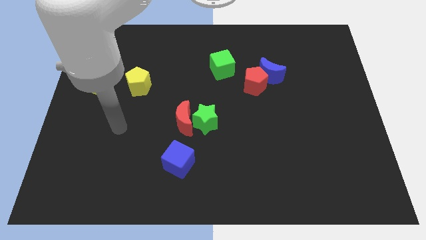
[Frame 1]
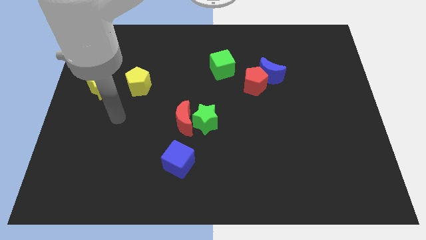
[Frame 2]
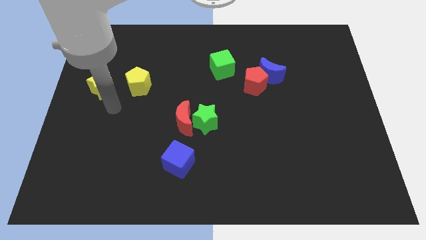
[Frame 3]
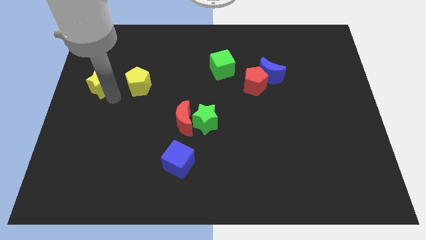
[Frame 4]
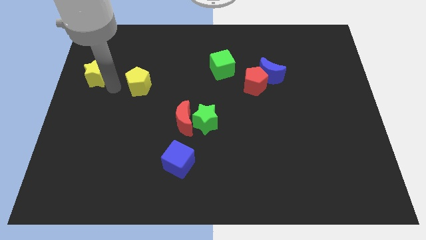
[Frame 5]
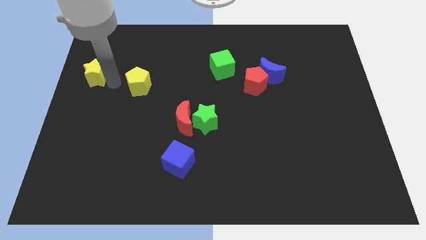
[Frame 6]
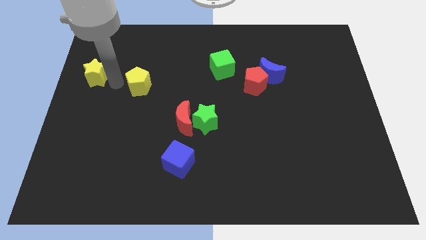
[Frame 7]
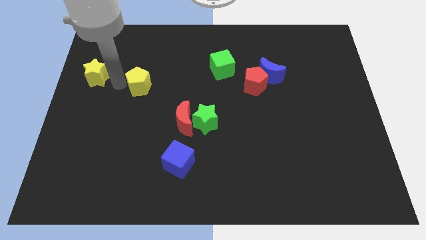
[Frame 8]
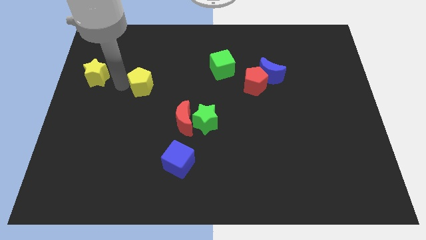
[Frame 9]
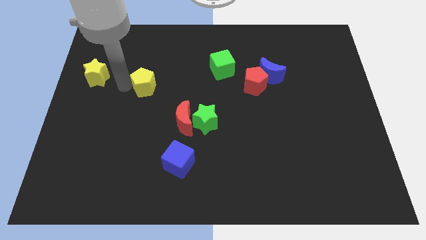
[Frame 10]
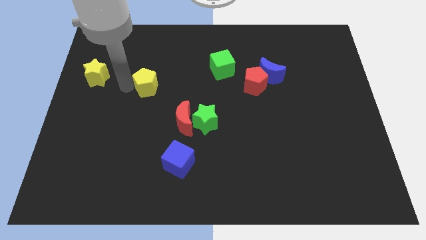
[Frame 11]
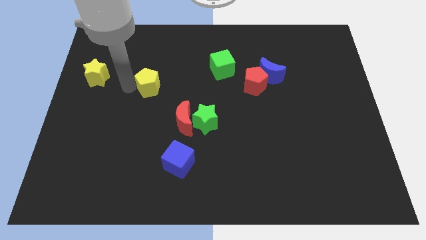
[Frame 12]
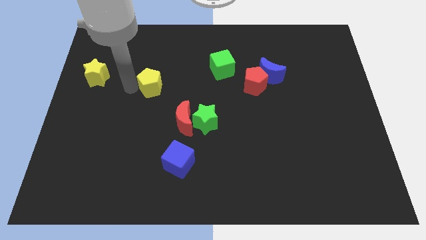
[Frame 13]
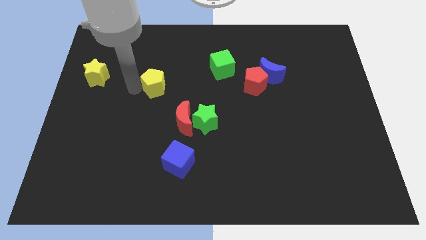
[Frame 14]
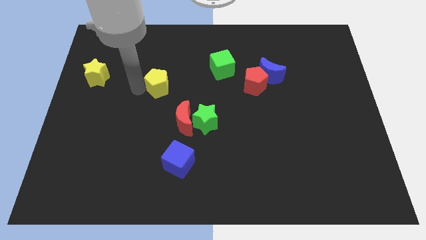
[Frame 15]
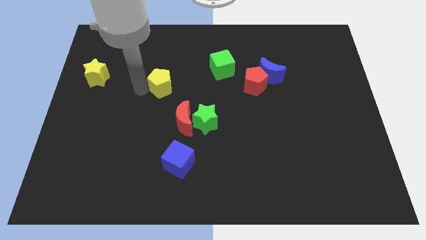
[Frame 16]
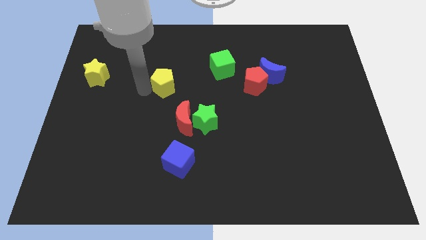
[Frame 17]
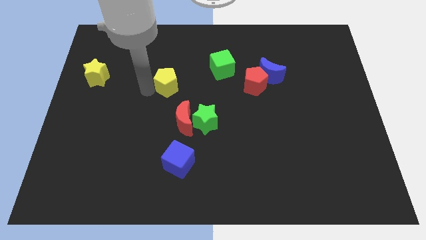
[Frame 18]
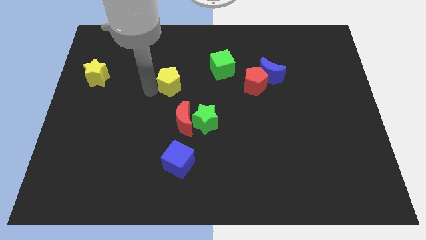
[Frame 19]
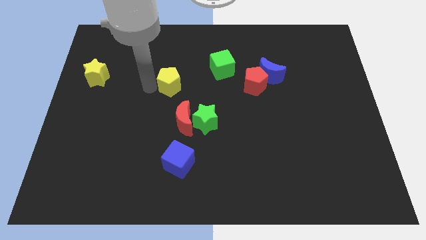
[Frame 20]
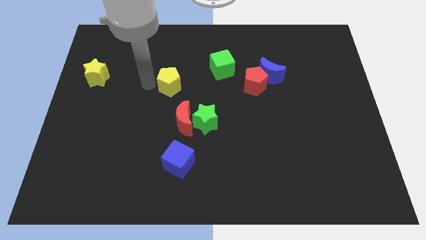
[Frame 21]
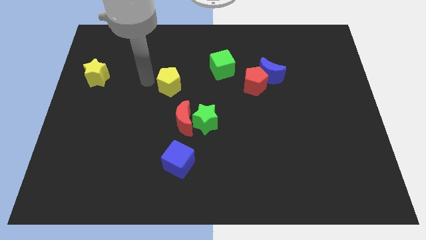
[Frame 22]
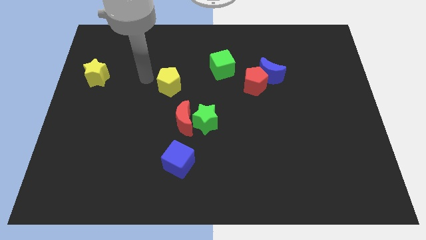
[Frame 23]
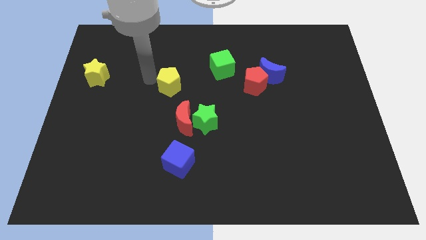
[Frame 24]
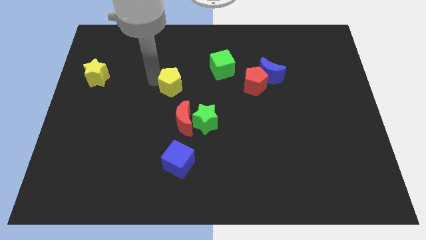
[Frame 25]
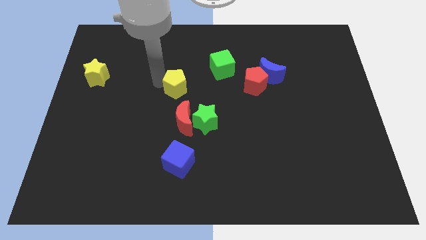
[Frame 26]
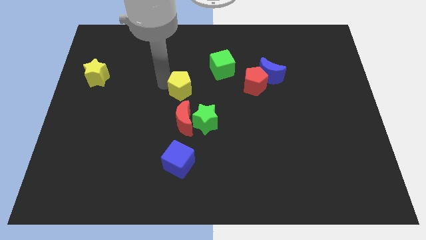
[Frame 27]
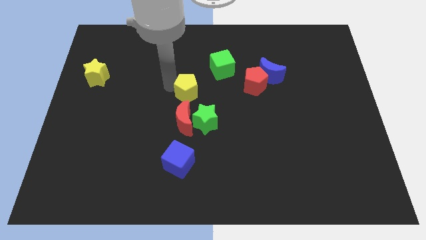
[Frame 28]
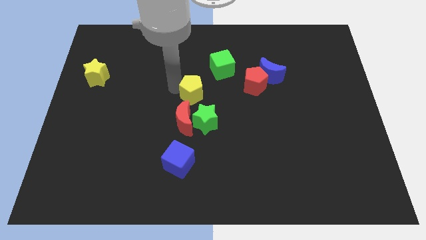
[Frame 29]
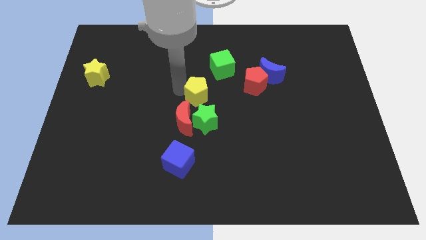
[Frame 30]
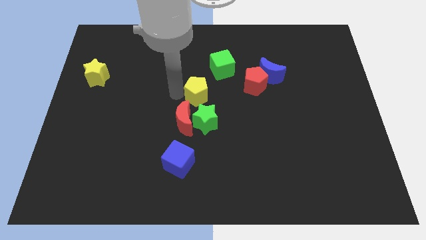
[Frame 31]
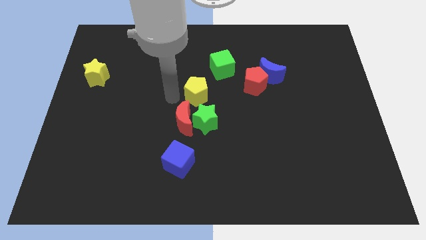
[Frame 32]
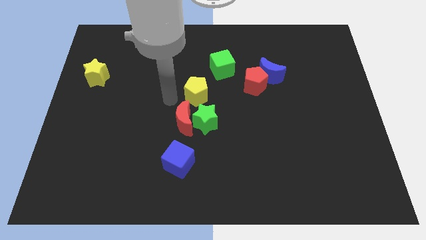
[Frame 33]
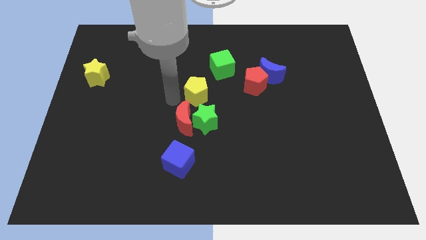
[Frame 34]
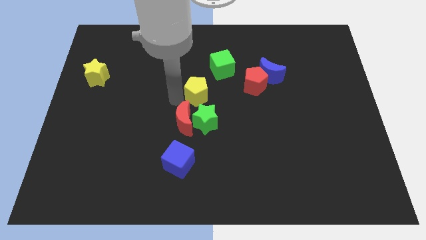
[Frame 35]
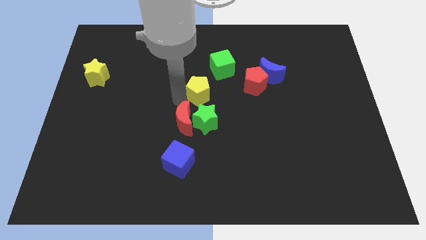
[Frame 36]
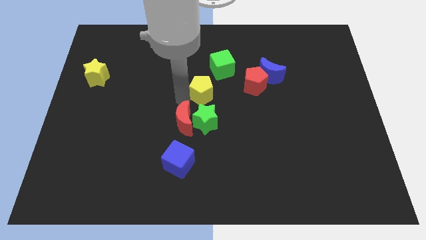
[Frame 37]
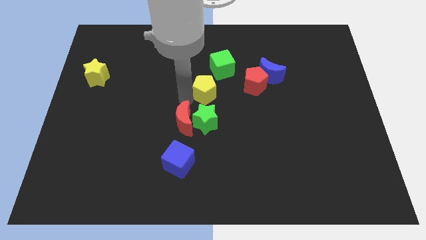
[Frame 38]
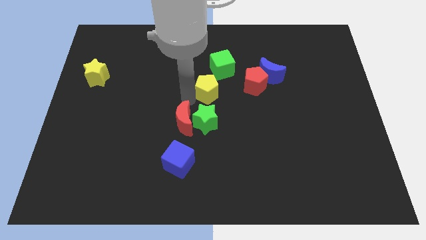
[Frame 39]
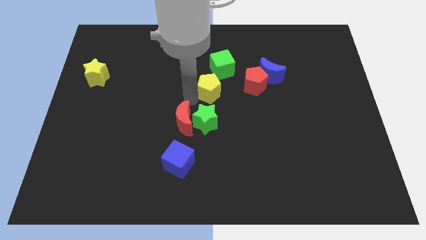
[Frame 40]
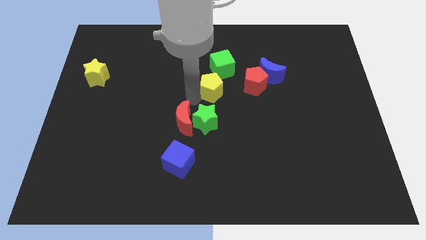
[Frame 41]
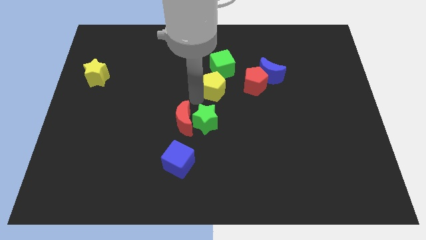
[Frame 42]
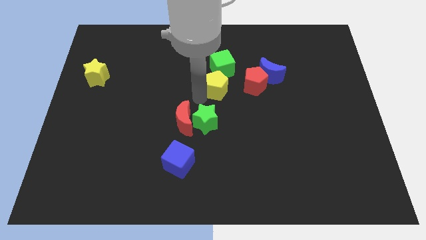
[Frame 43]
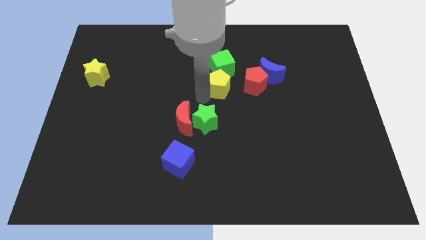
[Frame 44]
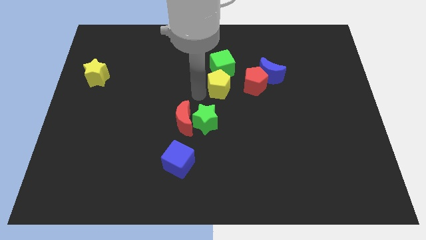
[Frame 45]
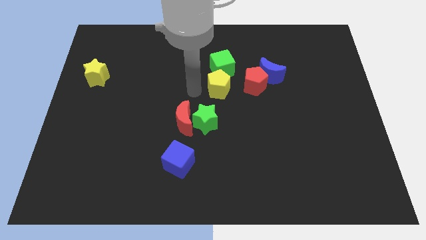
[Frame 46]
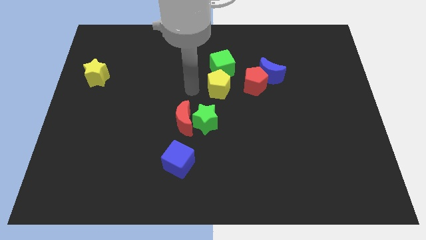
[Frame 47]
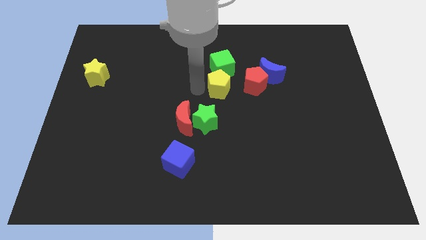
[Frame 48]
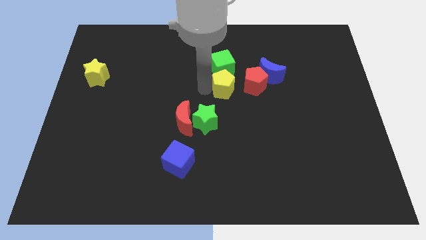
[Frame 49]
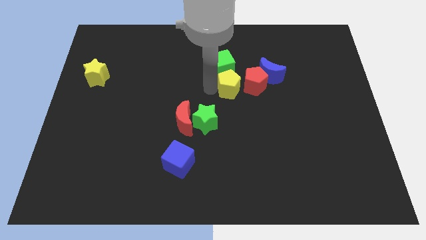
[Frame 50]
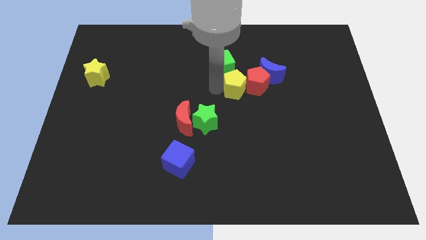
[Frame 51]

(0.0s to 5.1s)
move the yellow pentagon next to the red pentagon

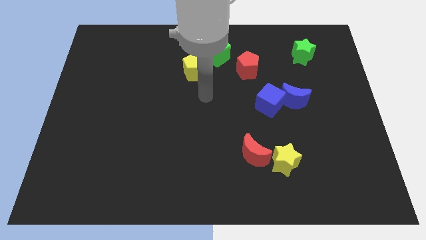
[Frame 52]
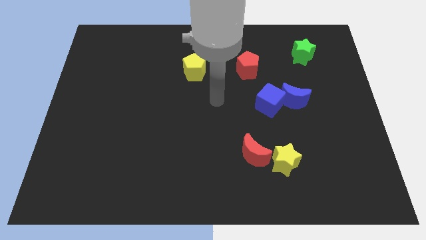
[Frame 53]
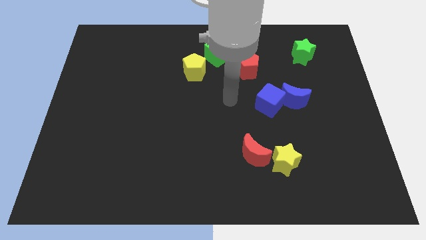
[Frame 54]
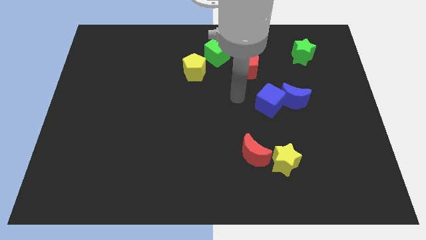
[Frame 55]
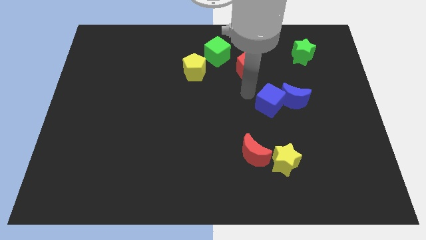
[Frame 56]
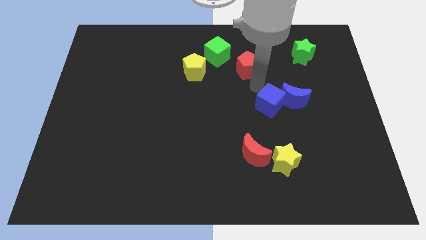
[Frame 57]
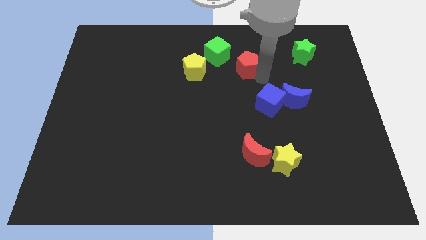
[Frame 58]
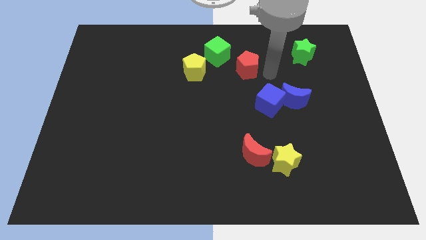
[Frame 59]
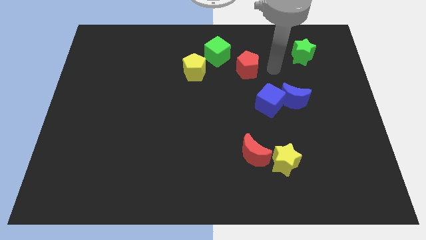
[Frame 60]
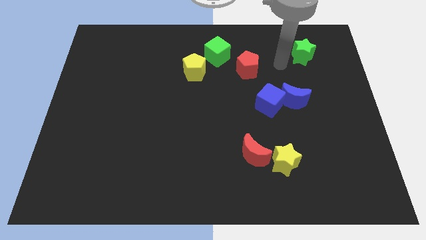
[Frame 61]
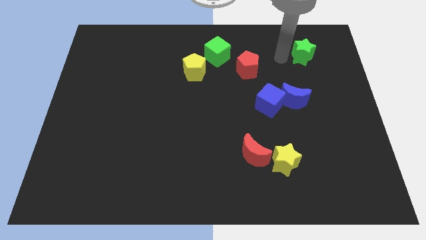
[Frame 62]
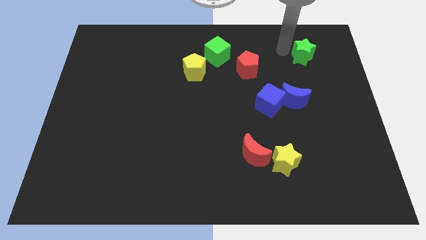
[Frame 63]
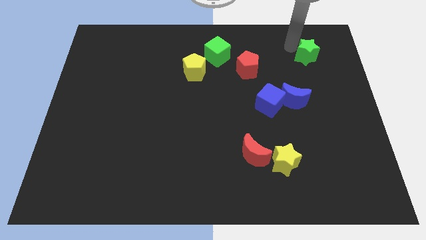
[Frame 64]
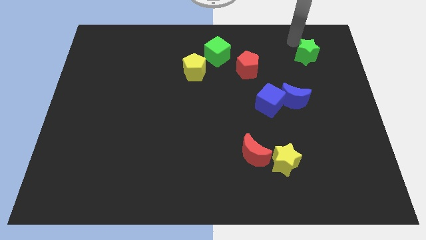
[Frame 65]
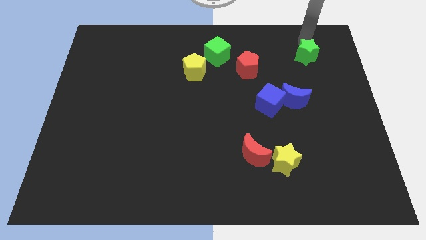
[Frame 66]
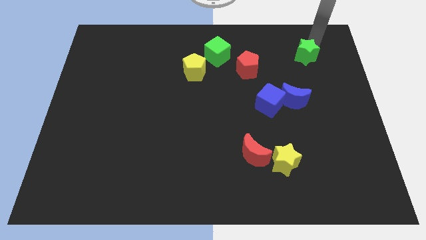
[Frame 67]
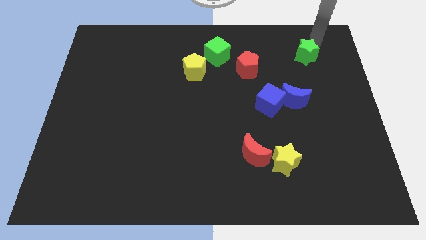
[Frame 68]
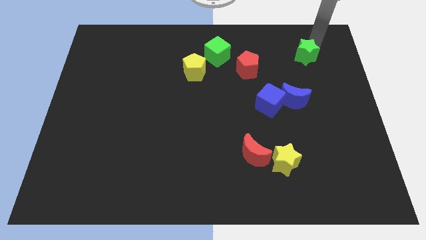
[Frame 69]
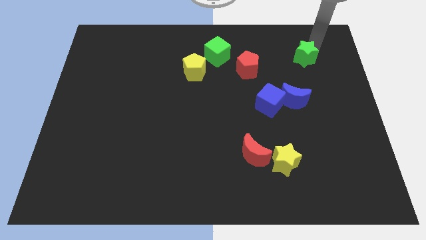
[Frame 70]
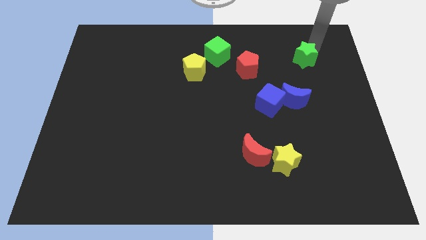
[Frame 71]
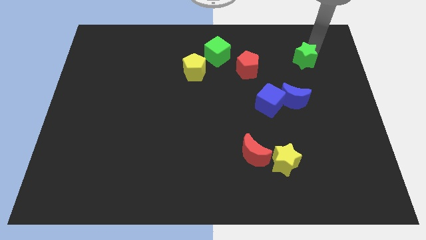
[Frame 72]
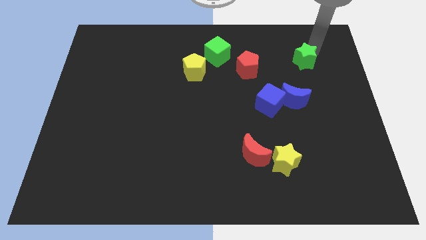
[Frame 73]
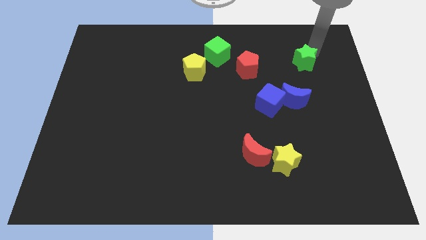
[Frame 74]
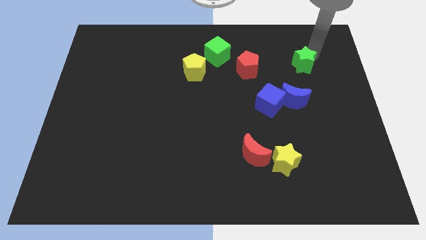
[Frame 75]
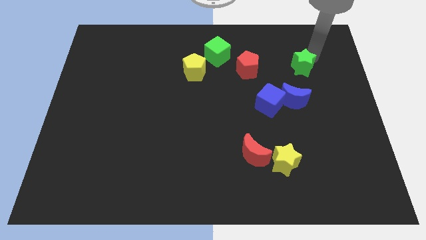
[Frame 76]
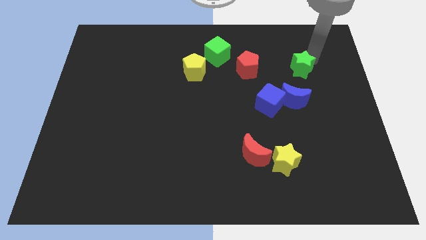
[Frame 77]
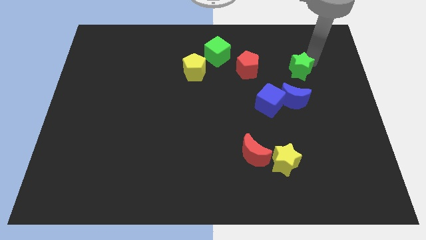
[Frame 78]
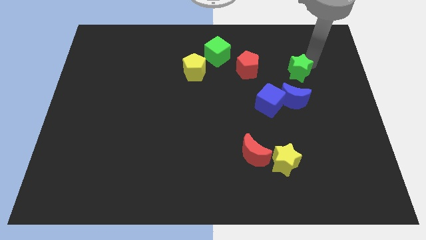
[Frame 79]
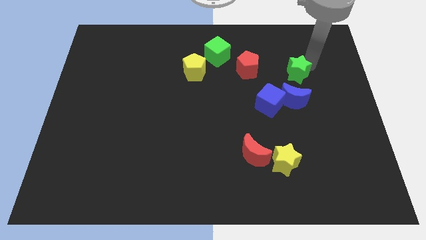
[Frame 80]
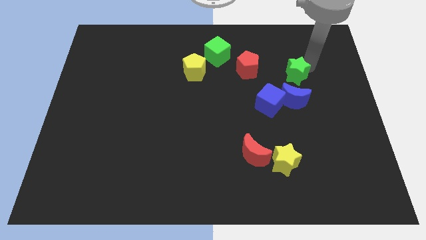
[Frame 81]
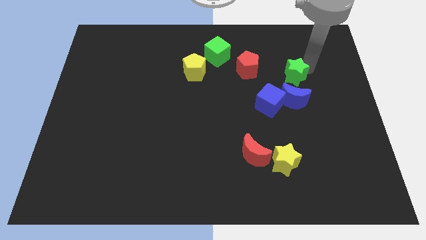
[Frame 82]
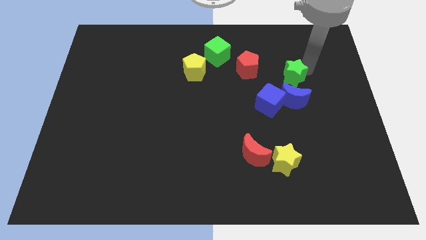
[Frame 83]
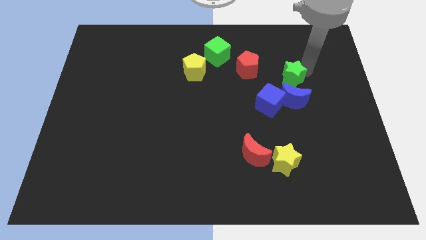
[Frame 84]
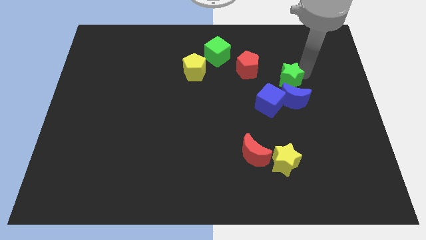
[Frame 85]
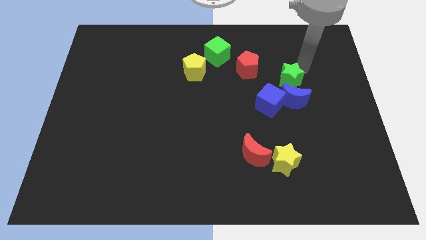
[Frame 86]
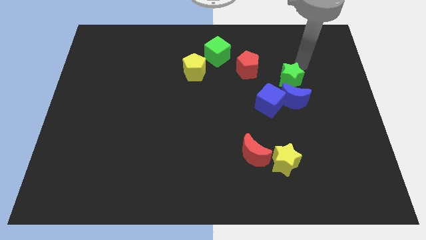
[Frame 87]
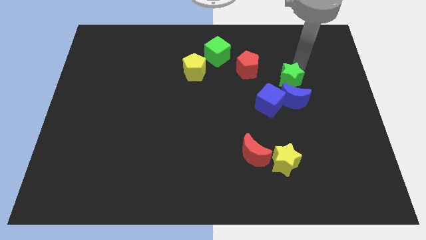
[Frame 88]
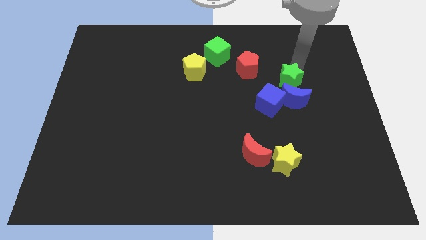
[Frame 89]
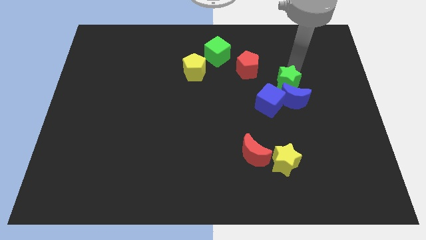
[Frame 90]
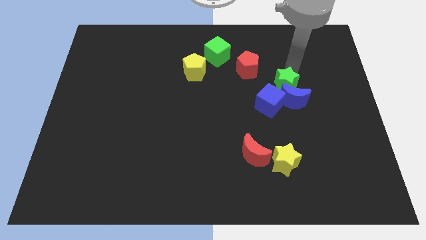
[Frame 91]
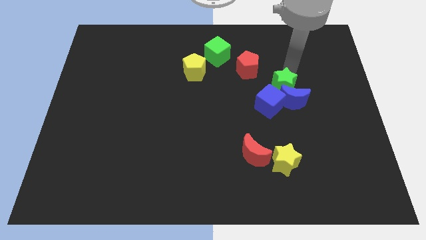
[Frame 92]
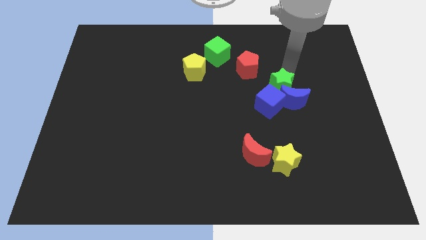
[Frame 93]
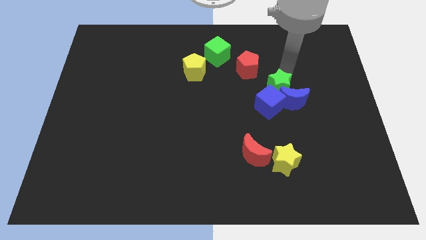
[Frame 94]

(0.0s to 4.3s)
move the green star close to the blue cube
